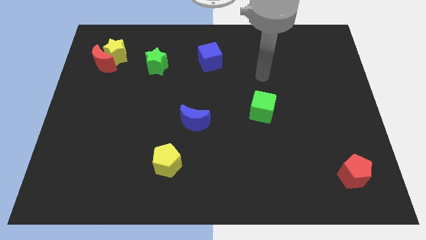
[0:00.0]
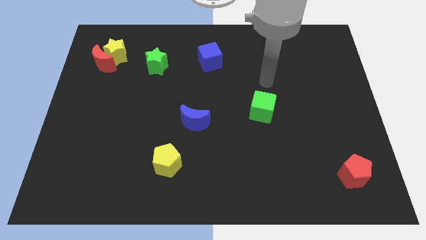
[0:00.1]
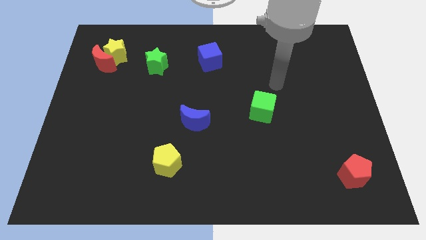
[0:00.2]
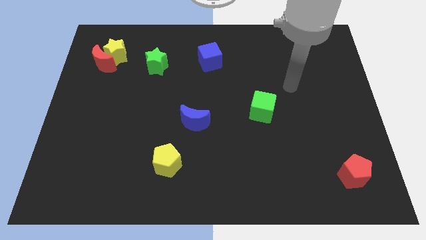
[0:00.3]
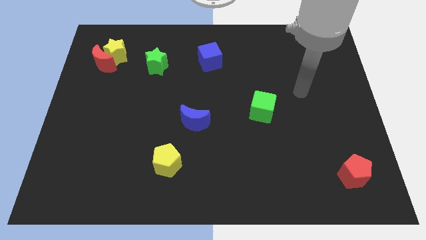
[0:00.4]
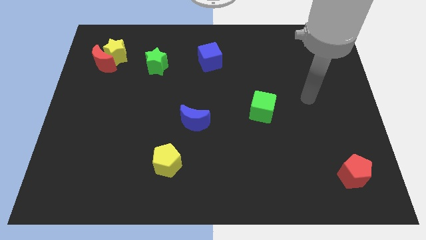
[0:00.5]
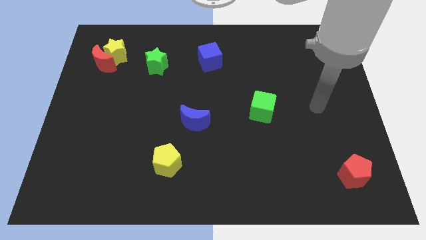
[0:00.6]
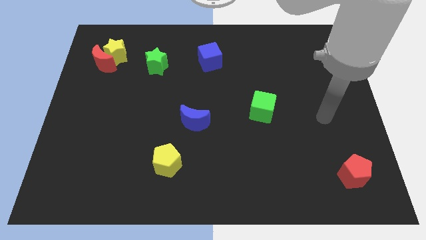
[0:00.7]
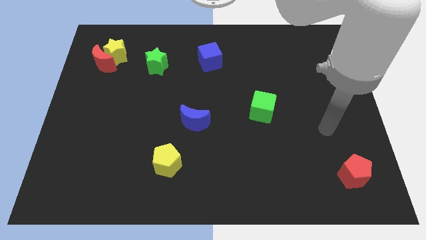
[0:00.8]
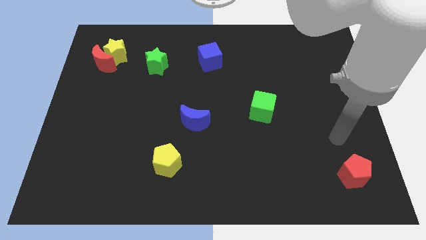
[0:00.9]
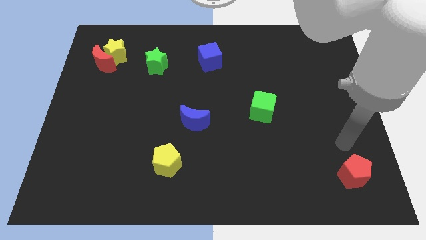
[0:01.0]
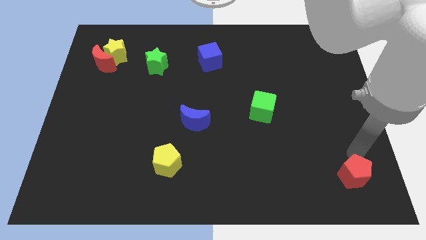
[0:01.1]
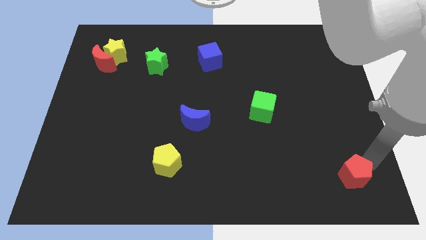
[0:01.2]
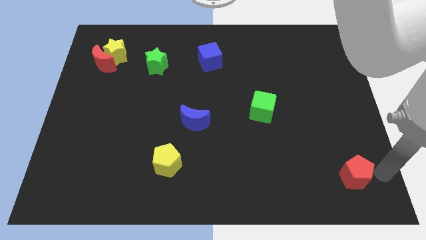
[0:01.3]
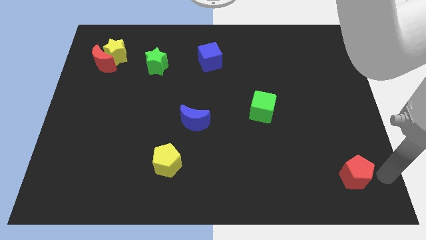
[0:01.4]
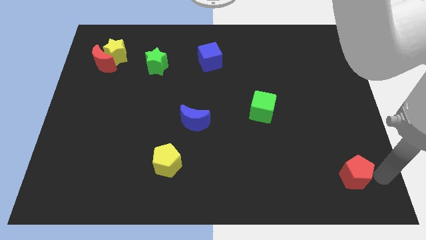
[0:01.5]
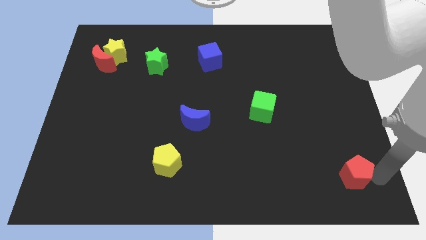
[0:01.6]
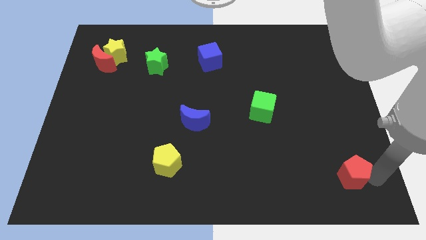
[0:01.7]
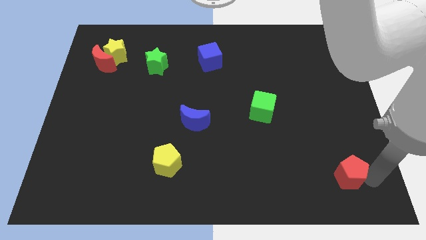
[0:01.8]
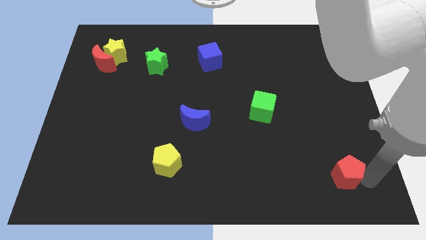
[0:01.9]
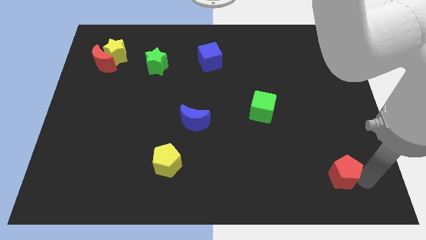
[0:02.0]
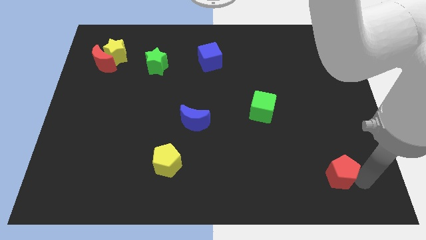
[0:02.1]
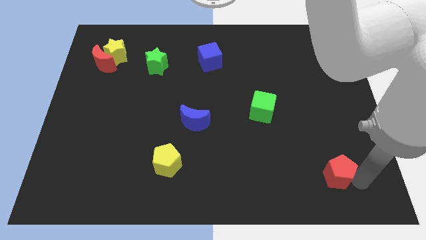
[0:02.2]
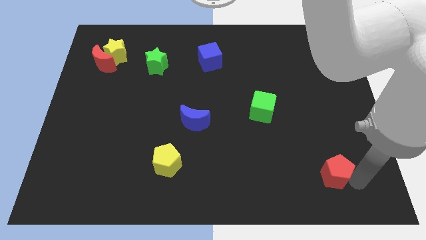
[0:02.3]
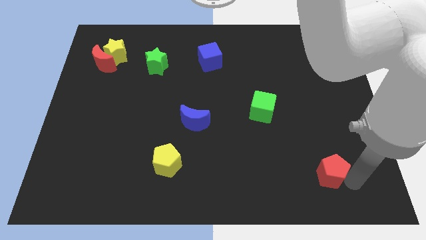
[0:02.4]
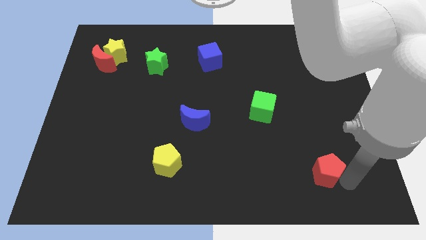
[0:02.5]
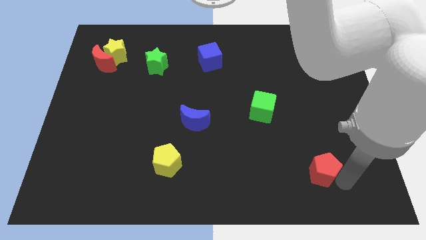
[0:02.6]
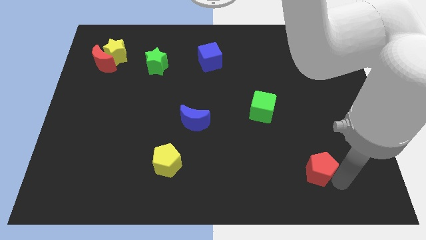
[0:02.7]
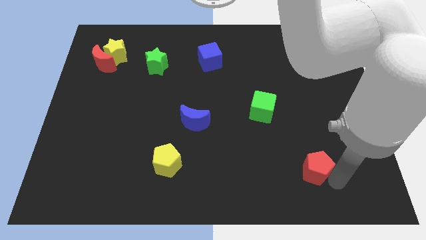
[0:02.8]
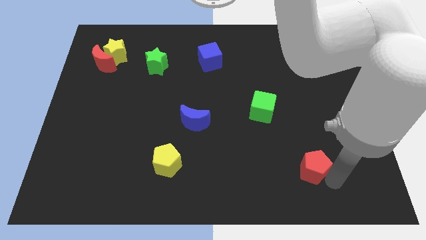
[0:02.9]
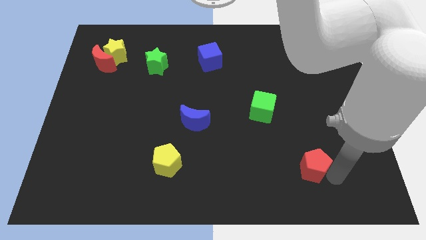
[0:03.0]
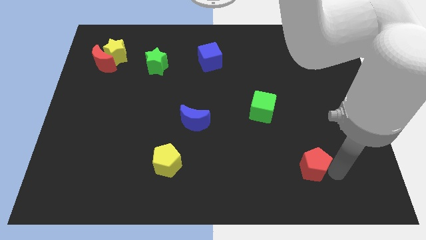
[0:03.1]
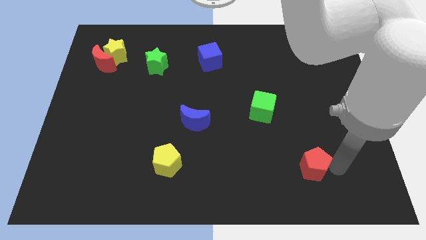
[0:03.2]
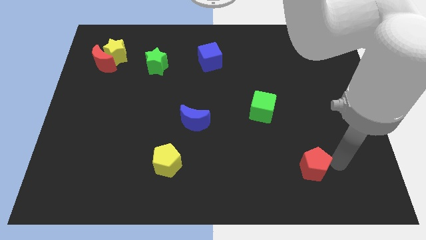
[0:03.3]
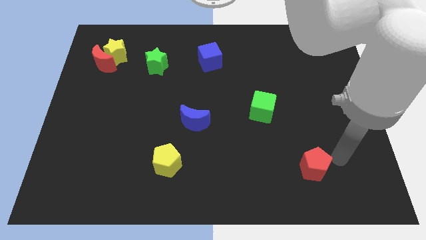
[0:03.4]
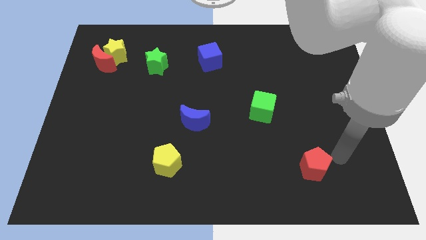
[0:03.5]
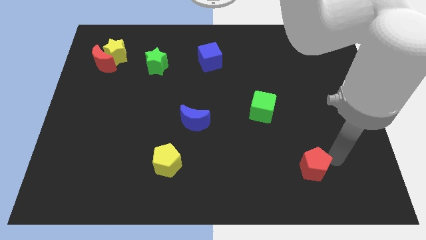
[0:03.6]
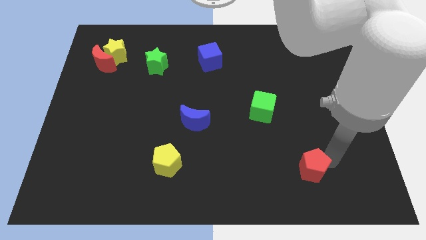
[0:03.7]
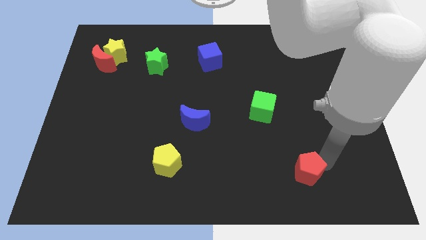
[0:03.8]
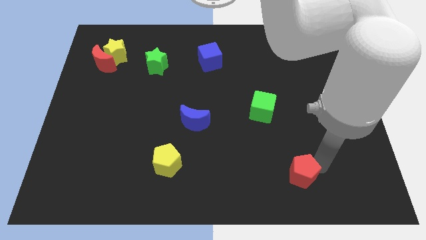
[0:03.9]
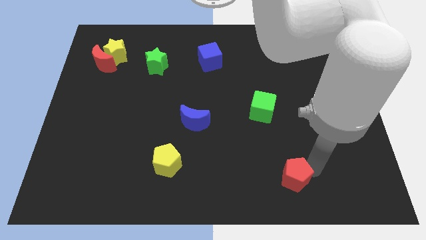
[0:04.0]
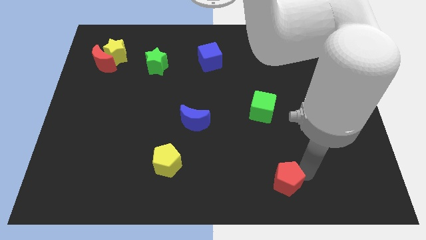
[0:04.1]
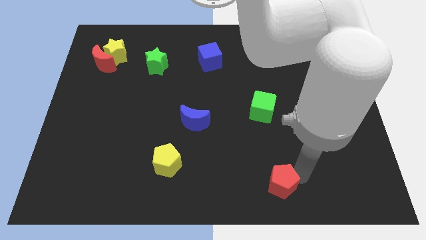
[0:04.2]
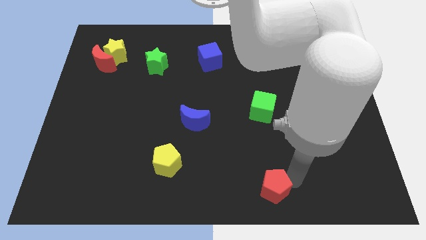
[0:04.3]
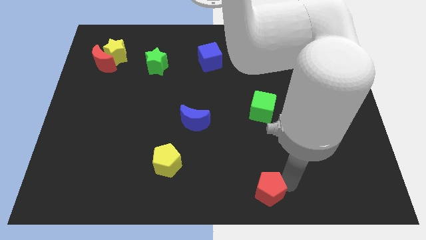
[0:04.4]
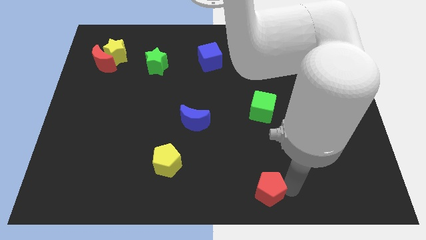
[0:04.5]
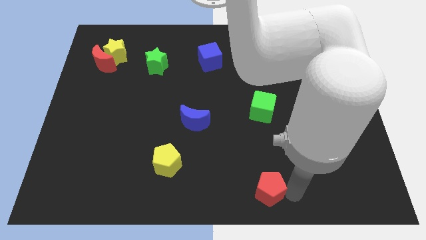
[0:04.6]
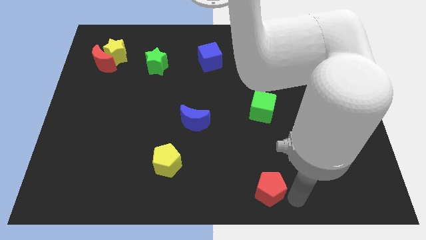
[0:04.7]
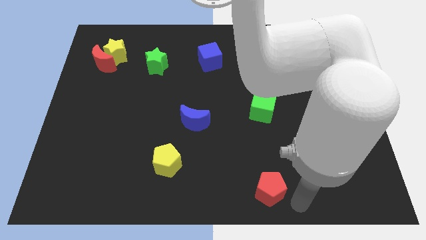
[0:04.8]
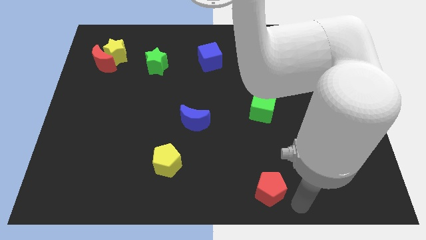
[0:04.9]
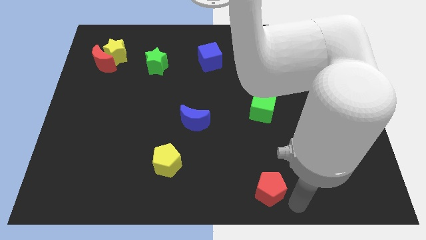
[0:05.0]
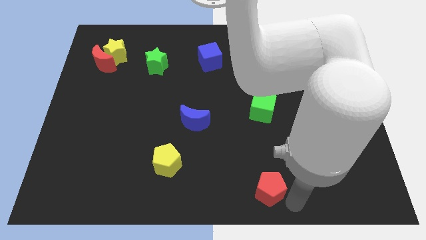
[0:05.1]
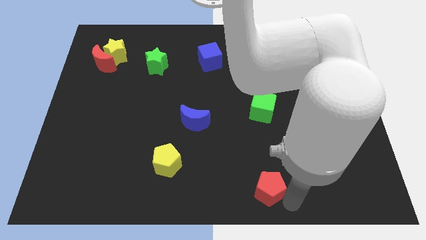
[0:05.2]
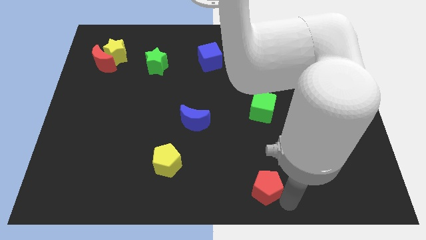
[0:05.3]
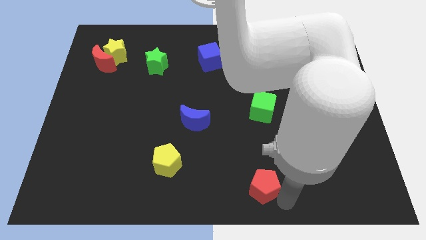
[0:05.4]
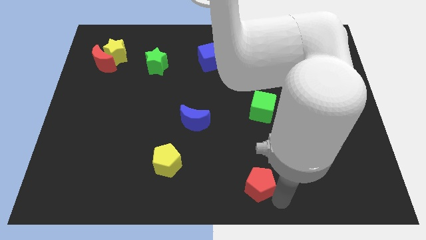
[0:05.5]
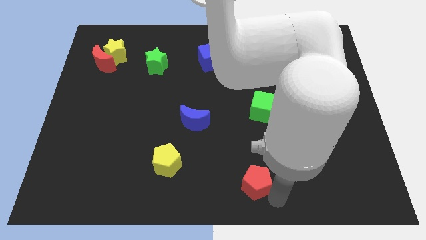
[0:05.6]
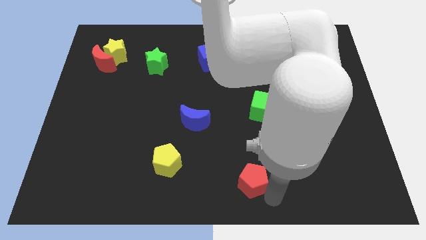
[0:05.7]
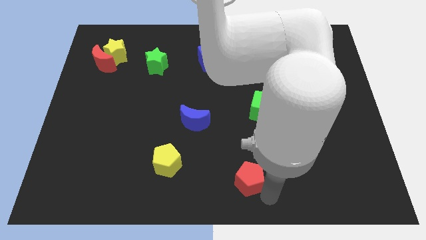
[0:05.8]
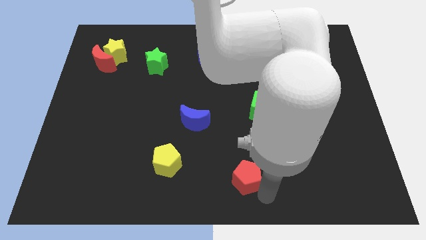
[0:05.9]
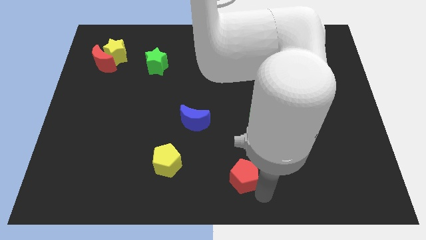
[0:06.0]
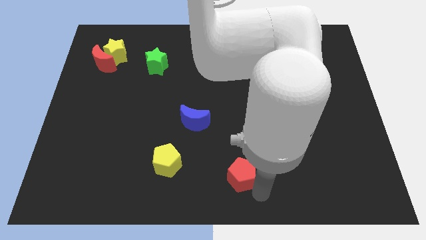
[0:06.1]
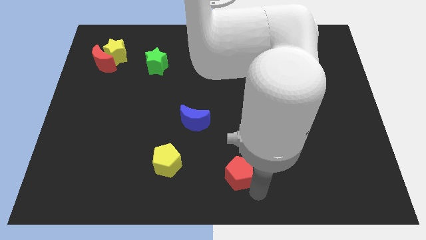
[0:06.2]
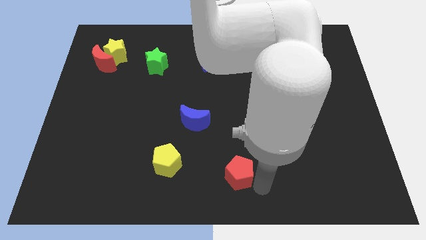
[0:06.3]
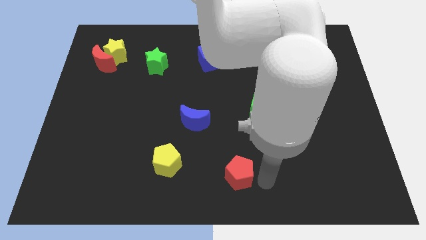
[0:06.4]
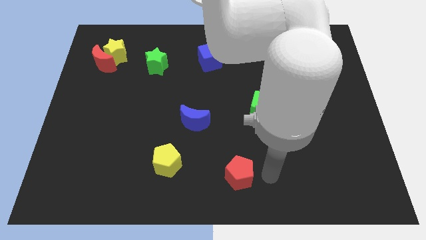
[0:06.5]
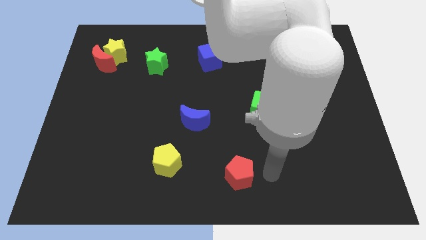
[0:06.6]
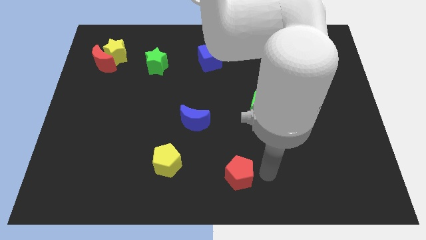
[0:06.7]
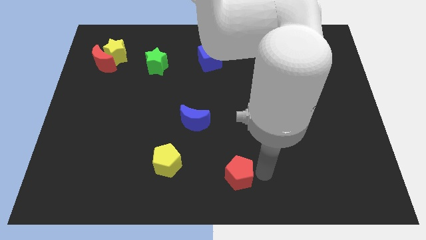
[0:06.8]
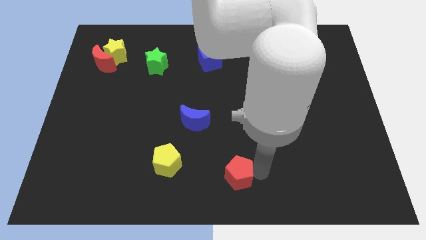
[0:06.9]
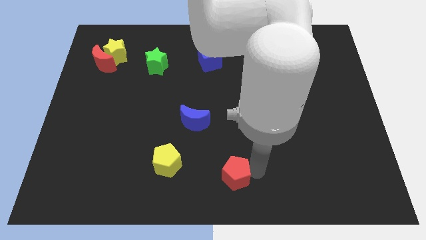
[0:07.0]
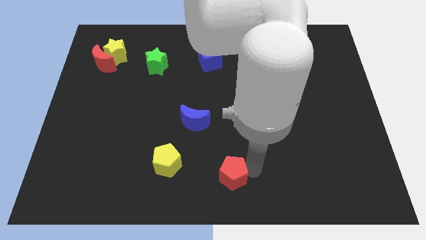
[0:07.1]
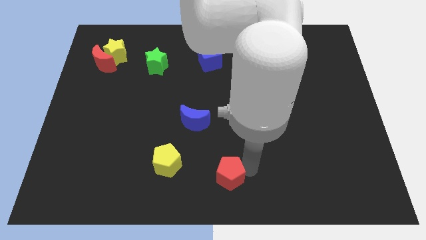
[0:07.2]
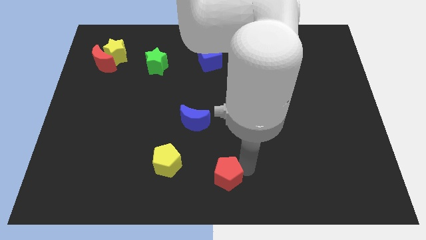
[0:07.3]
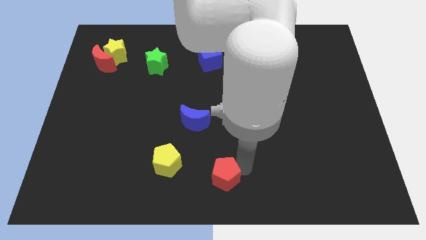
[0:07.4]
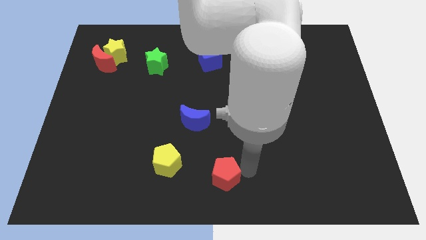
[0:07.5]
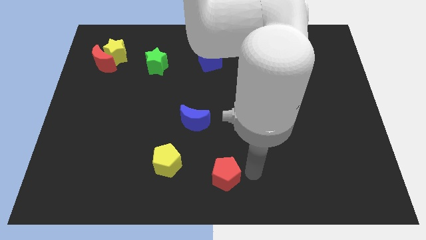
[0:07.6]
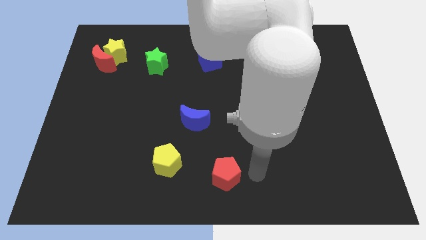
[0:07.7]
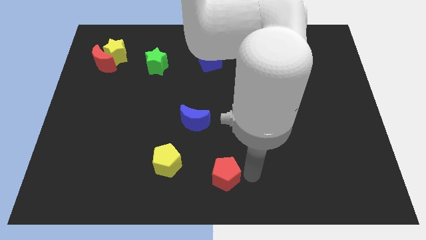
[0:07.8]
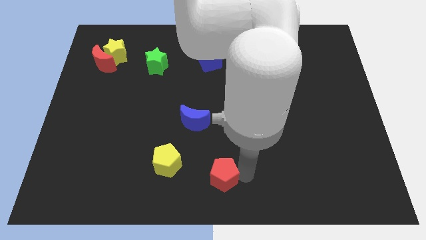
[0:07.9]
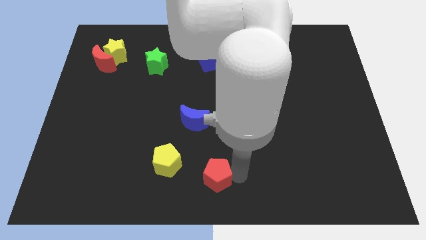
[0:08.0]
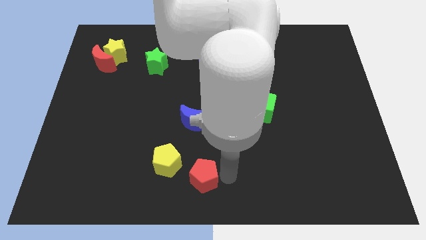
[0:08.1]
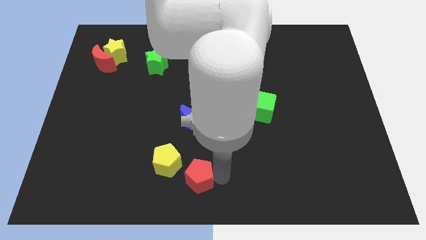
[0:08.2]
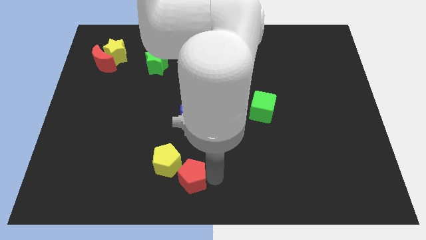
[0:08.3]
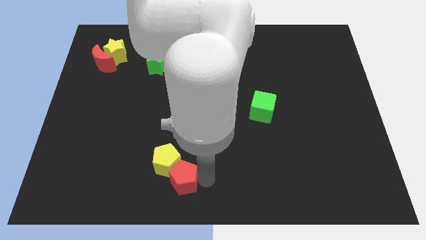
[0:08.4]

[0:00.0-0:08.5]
slide the red pentagon close to the yellow pentagon
